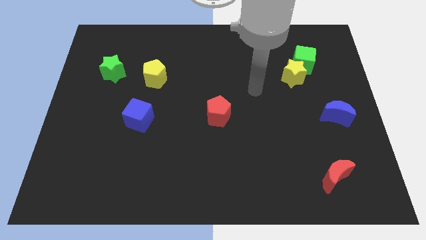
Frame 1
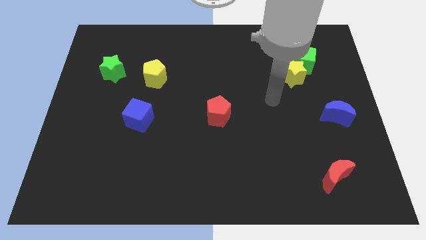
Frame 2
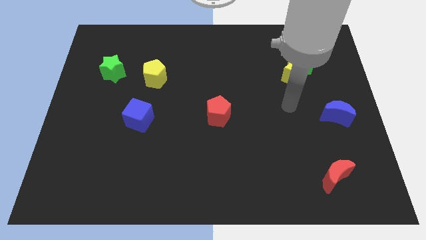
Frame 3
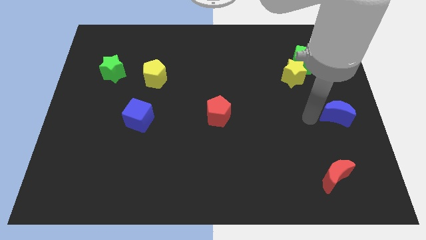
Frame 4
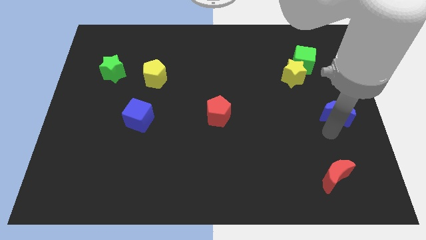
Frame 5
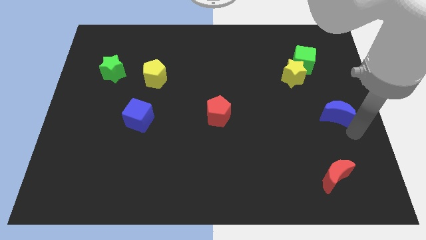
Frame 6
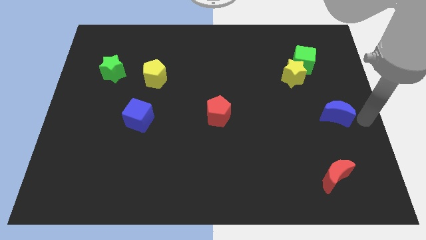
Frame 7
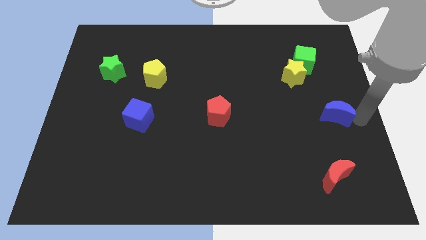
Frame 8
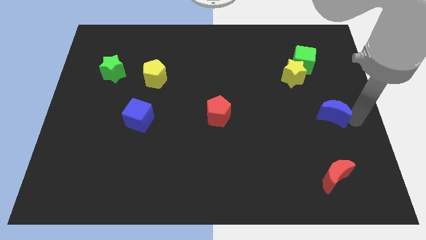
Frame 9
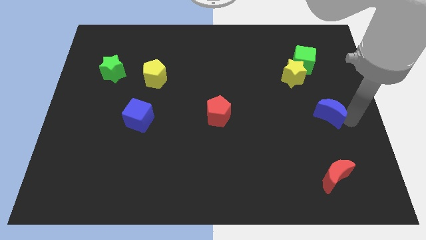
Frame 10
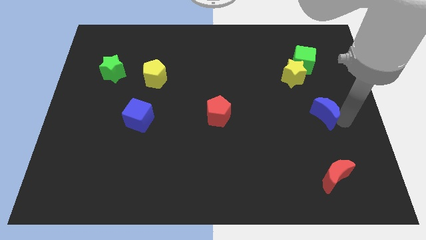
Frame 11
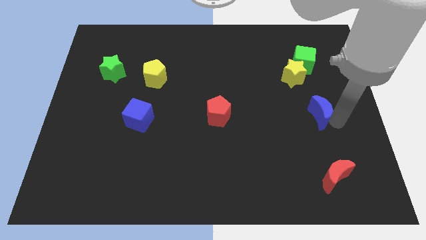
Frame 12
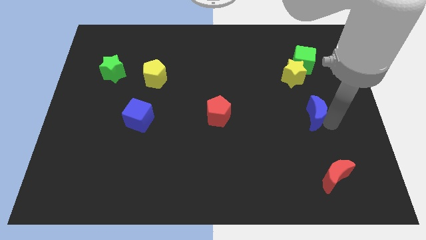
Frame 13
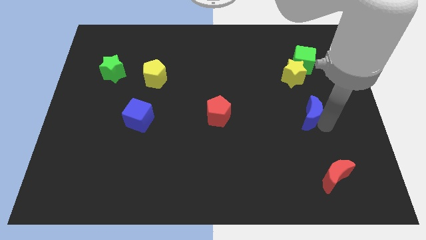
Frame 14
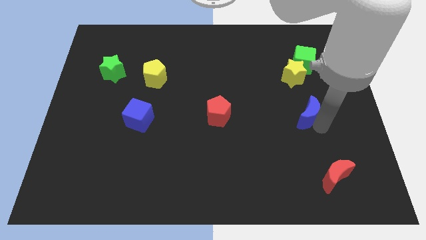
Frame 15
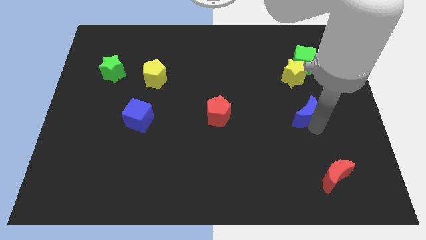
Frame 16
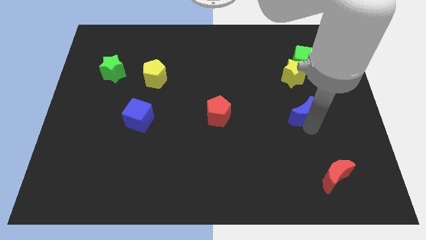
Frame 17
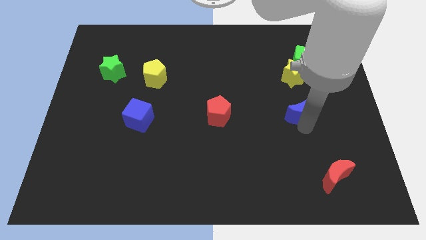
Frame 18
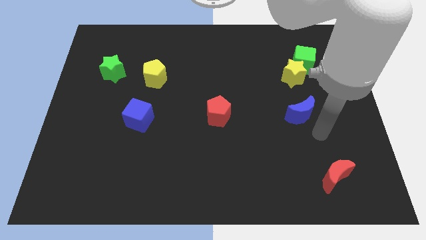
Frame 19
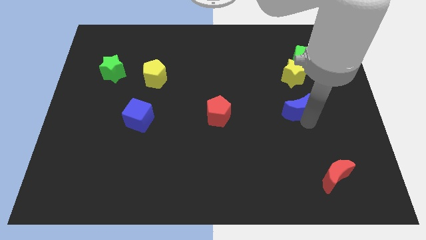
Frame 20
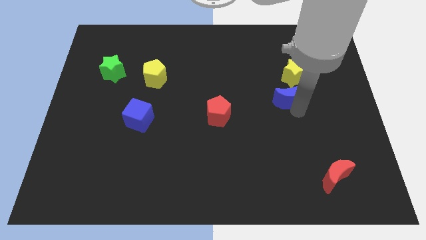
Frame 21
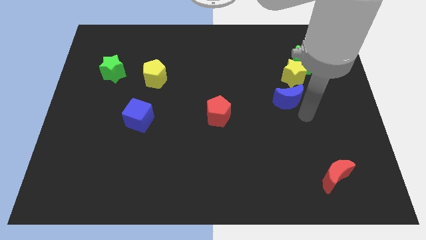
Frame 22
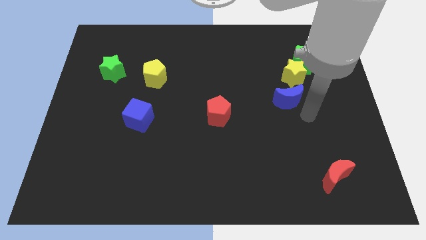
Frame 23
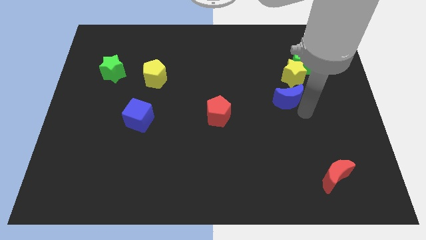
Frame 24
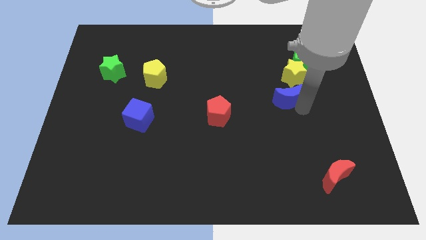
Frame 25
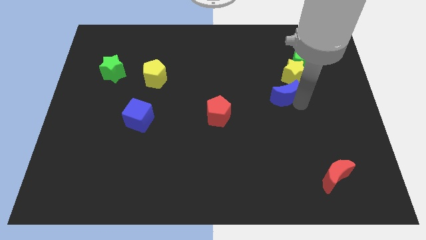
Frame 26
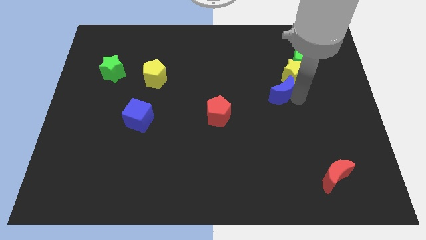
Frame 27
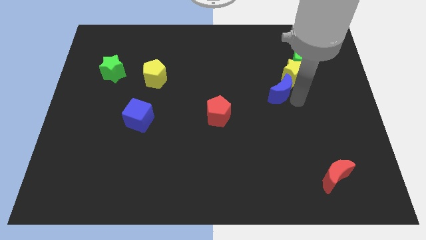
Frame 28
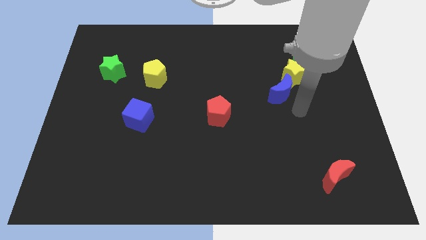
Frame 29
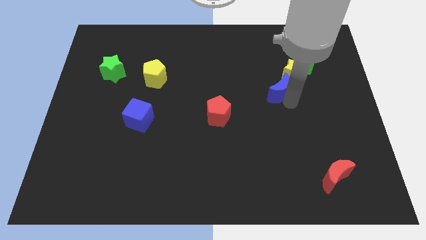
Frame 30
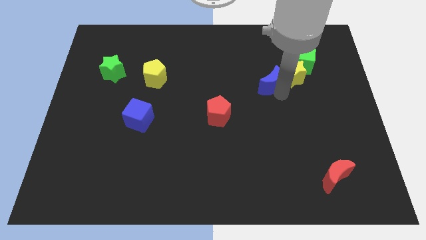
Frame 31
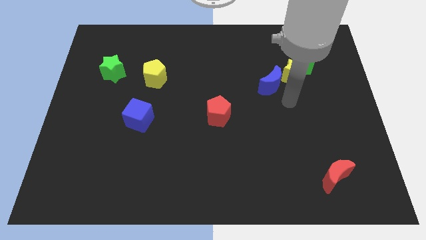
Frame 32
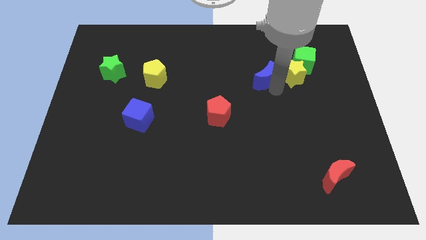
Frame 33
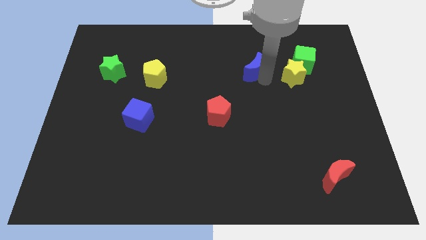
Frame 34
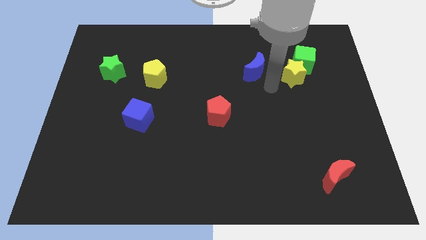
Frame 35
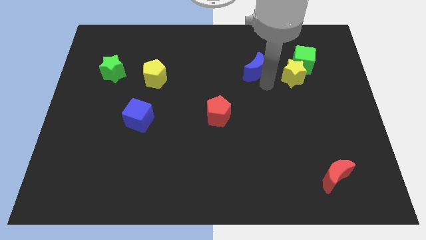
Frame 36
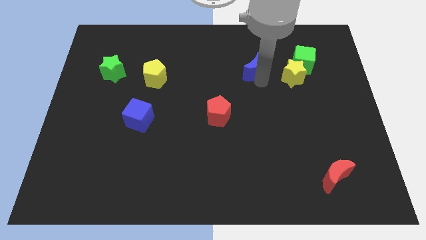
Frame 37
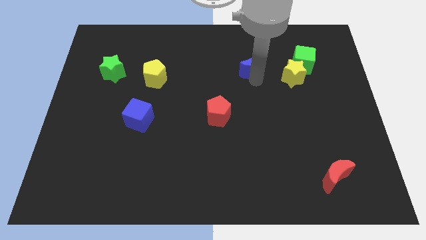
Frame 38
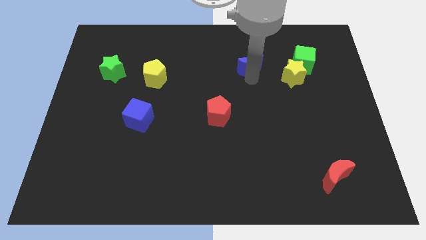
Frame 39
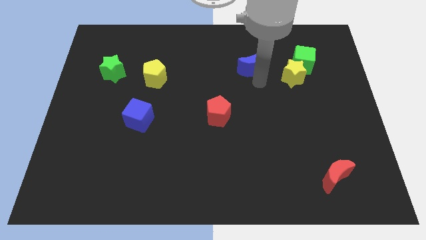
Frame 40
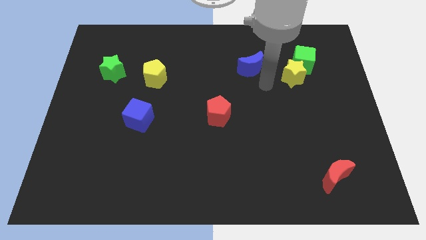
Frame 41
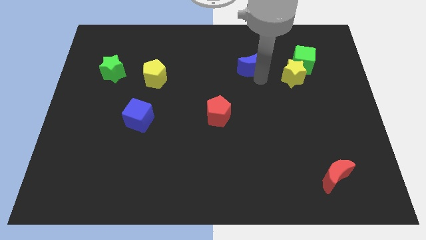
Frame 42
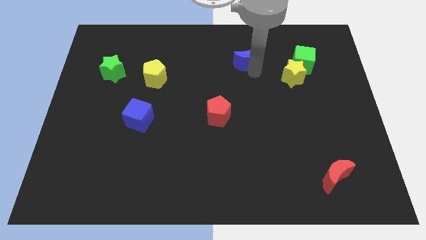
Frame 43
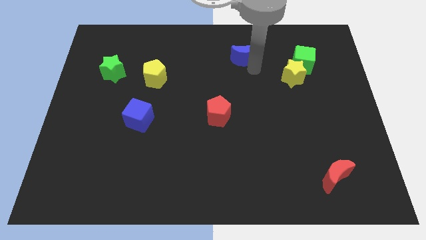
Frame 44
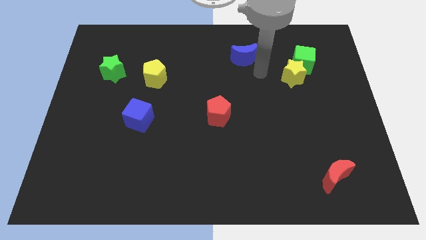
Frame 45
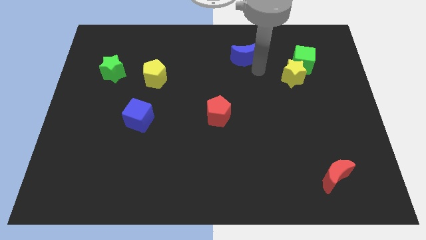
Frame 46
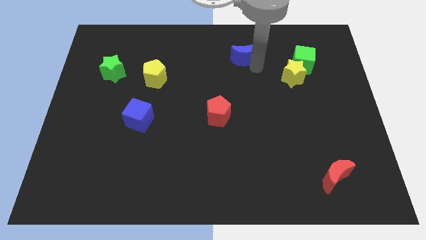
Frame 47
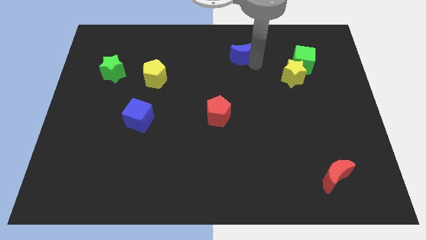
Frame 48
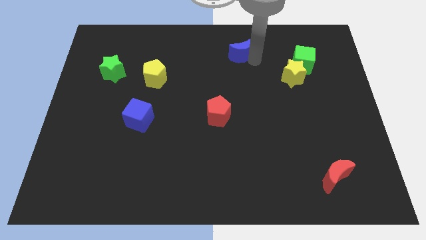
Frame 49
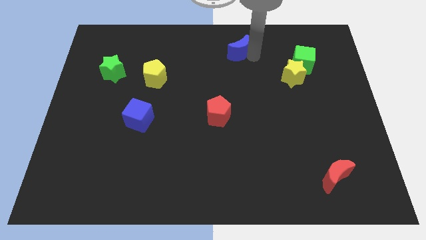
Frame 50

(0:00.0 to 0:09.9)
slide the blue moon to the top side
